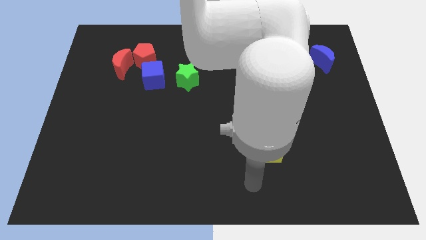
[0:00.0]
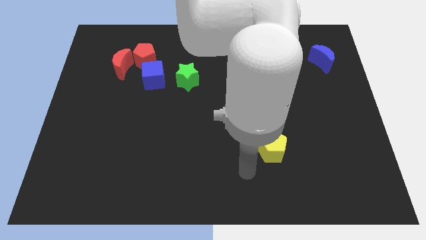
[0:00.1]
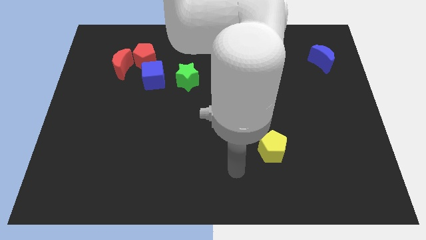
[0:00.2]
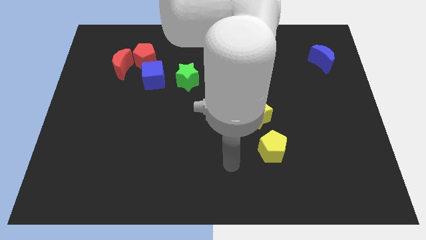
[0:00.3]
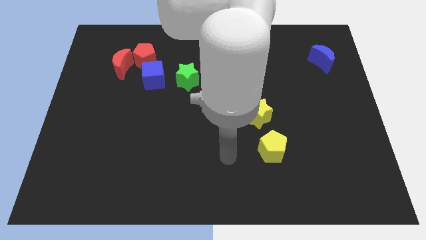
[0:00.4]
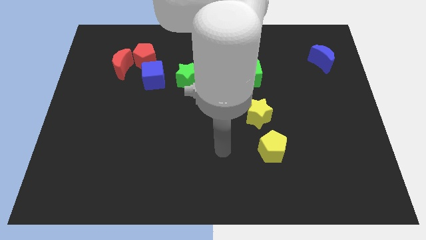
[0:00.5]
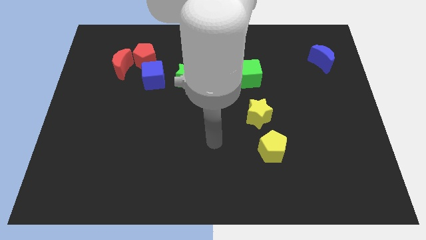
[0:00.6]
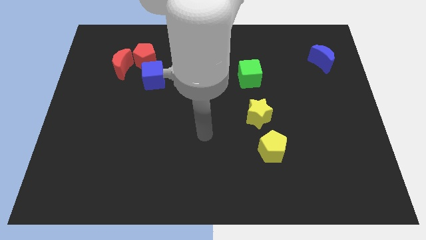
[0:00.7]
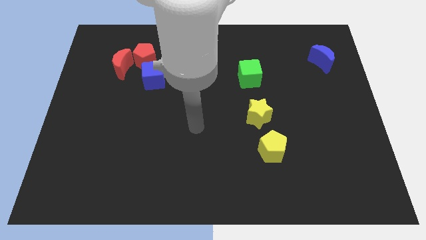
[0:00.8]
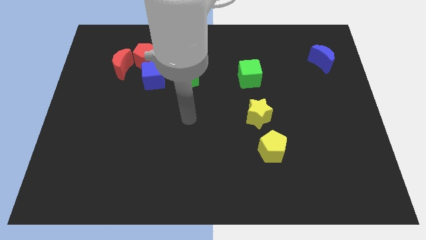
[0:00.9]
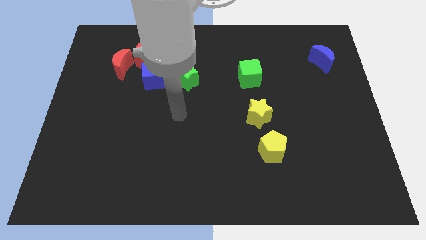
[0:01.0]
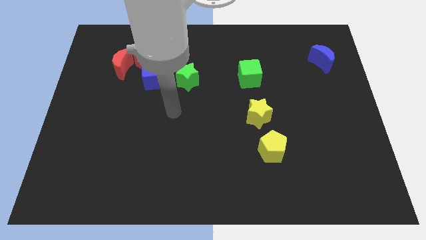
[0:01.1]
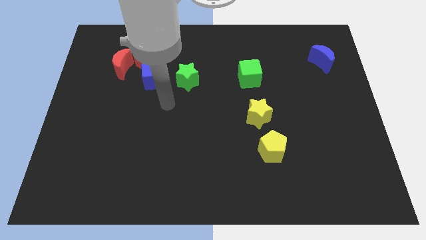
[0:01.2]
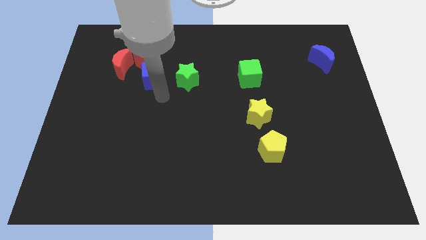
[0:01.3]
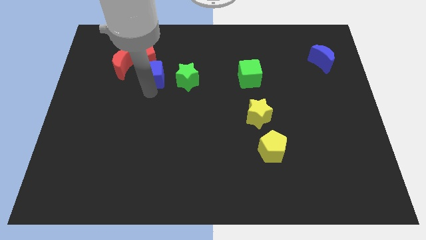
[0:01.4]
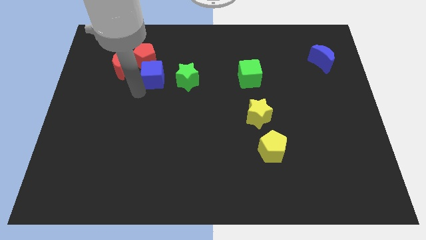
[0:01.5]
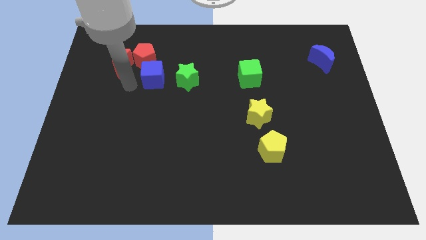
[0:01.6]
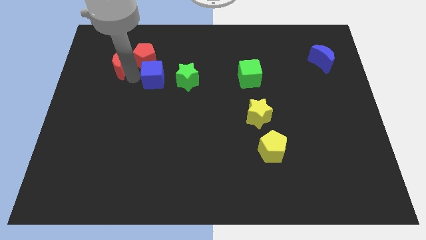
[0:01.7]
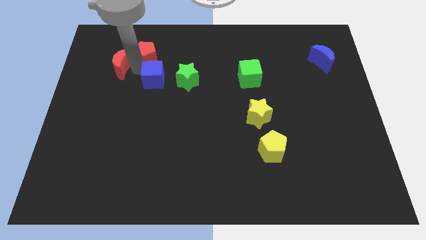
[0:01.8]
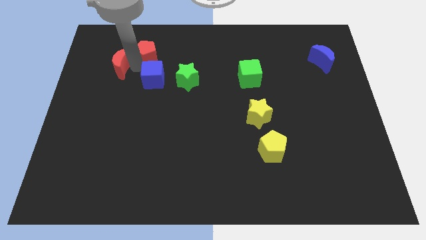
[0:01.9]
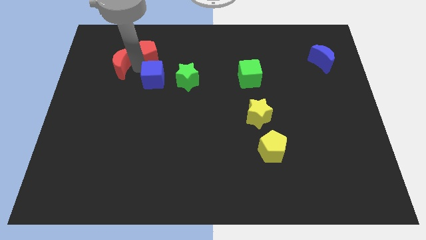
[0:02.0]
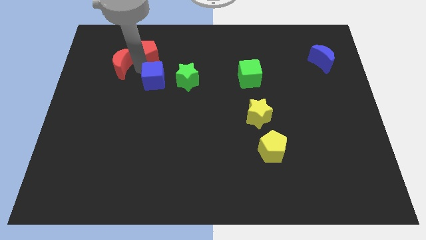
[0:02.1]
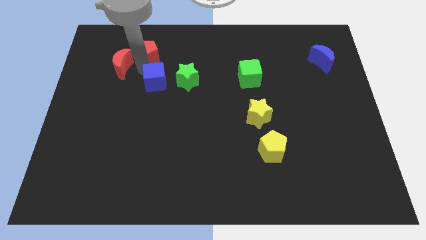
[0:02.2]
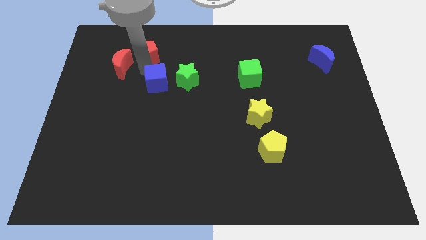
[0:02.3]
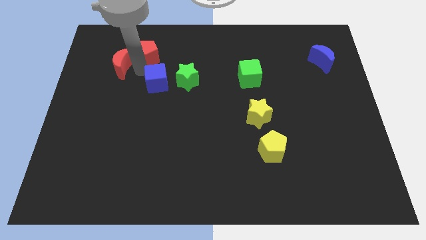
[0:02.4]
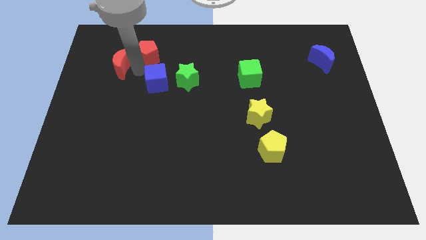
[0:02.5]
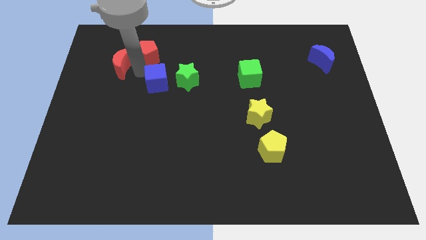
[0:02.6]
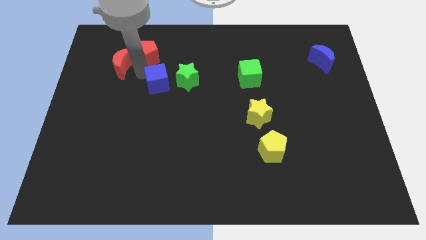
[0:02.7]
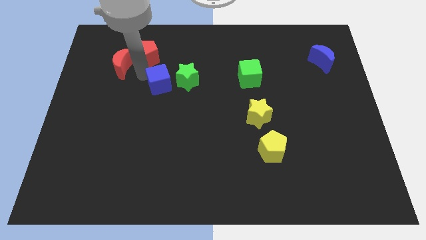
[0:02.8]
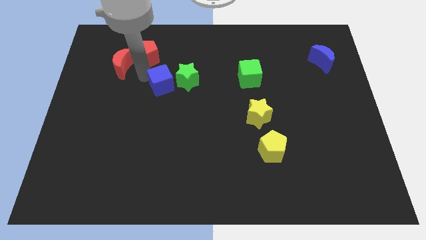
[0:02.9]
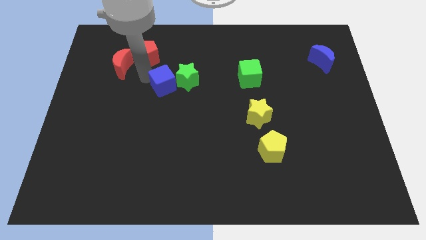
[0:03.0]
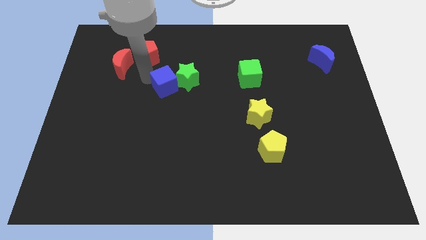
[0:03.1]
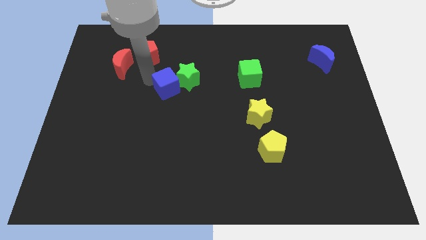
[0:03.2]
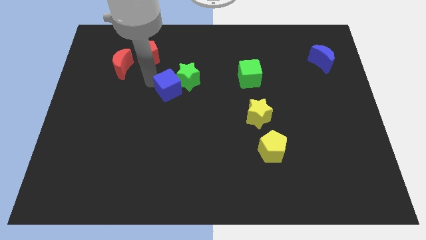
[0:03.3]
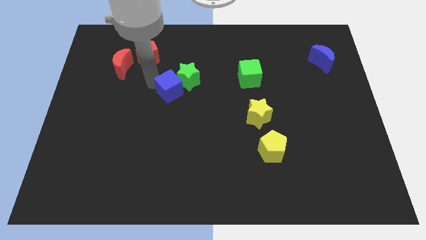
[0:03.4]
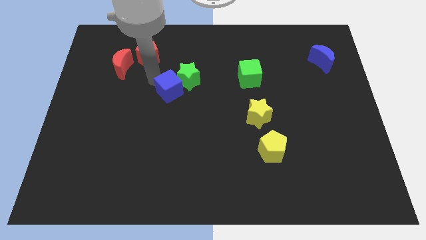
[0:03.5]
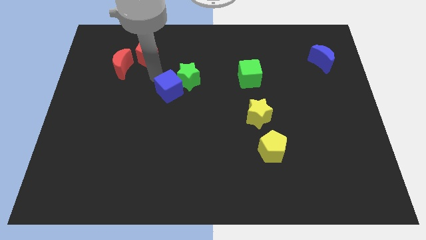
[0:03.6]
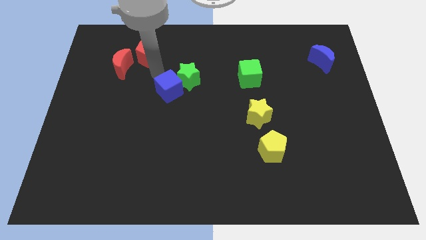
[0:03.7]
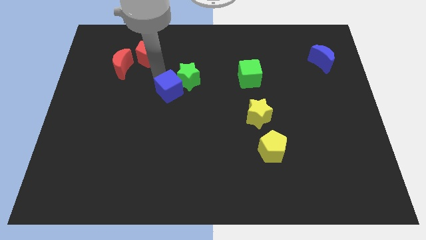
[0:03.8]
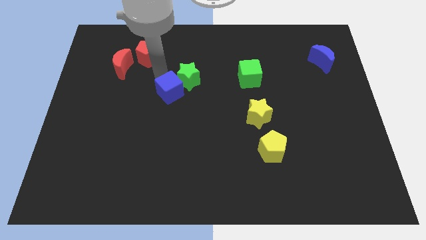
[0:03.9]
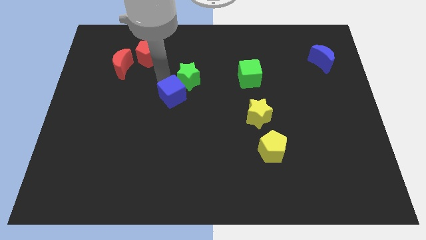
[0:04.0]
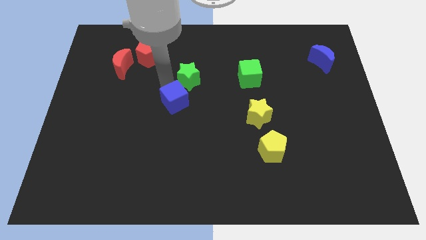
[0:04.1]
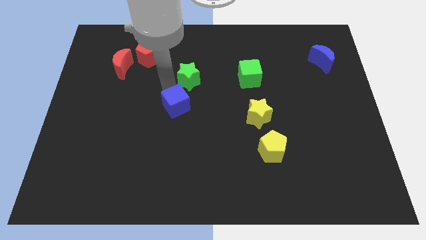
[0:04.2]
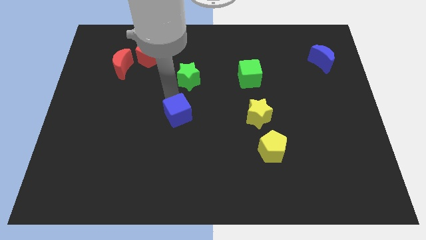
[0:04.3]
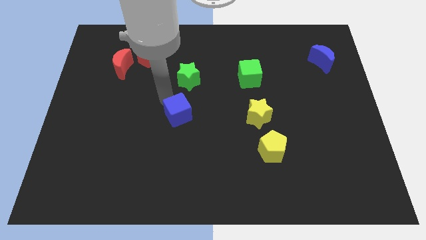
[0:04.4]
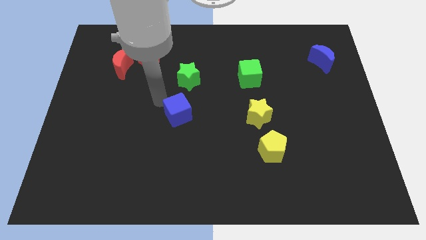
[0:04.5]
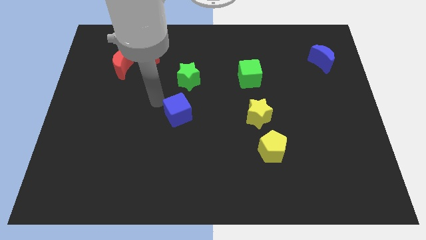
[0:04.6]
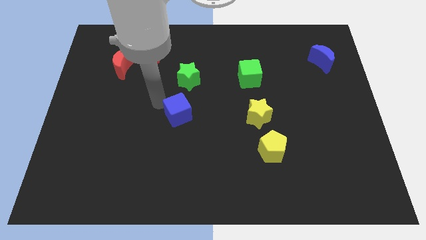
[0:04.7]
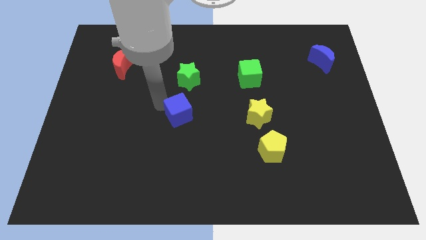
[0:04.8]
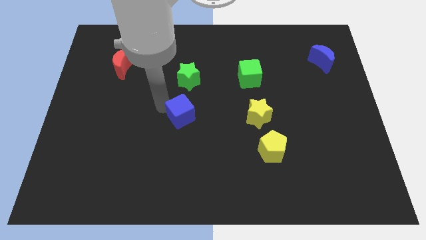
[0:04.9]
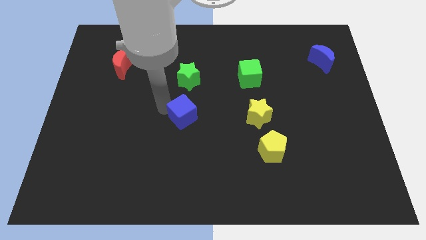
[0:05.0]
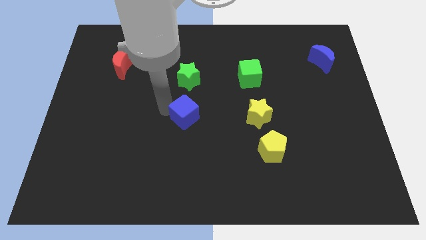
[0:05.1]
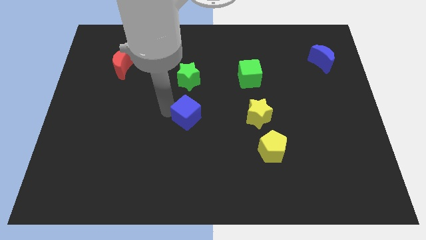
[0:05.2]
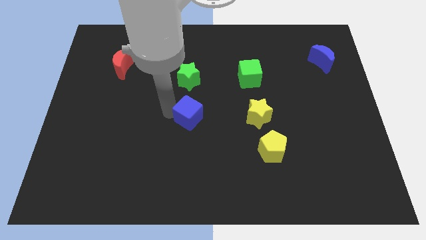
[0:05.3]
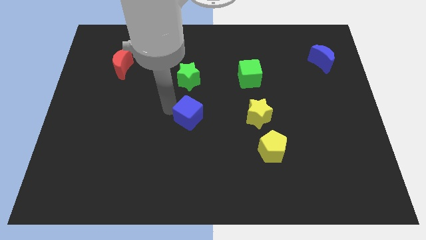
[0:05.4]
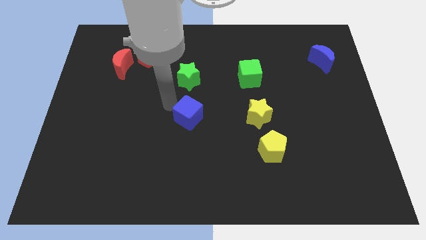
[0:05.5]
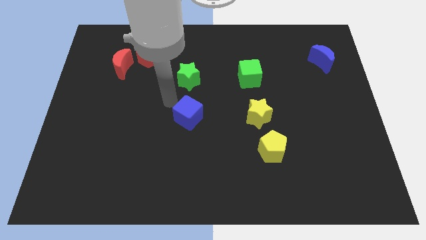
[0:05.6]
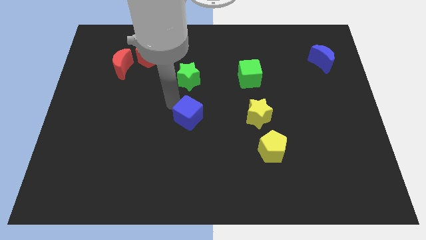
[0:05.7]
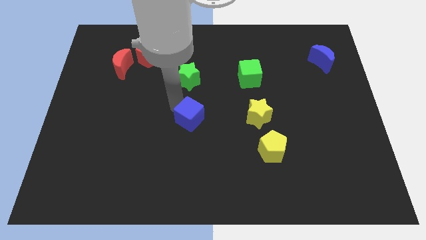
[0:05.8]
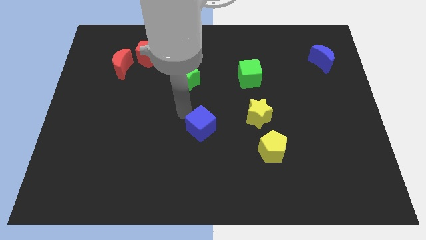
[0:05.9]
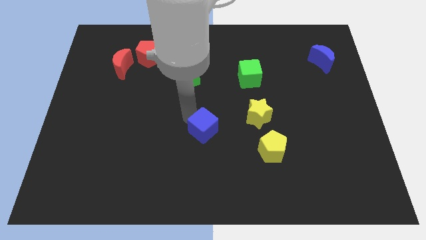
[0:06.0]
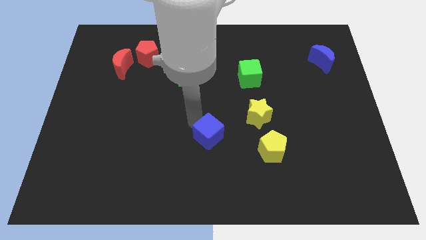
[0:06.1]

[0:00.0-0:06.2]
slide the blue cube downwards and then to the right

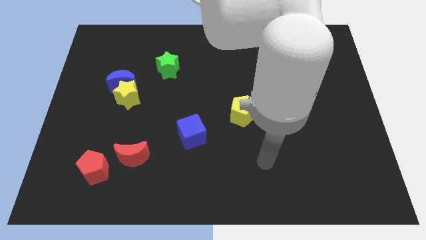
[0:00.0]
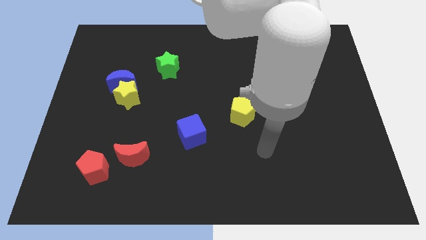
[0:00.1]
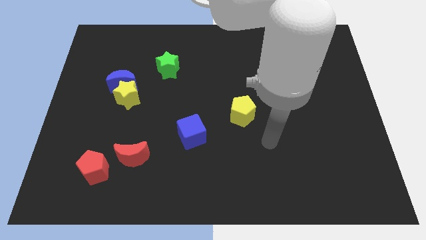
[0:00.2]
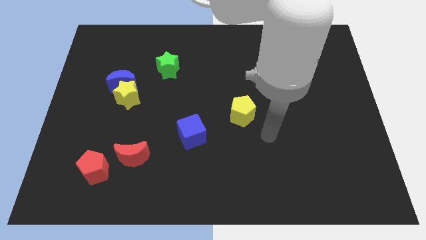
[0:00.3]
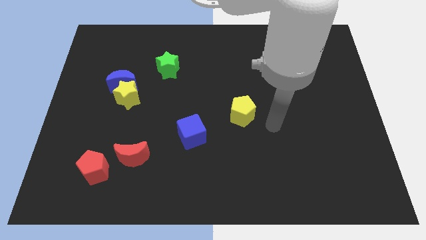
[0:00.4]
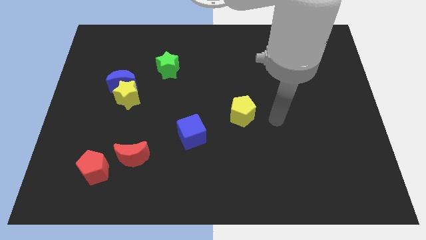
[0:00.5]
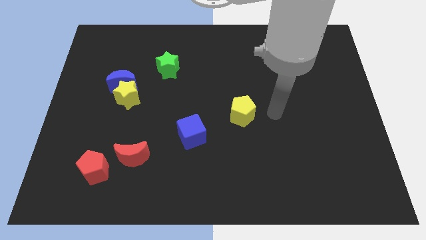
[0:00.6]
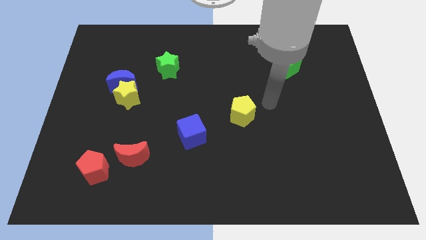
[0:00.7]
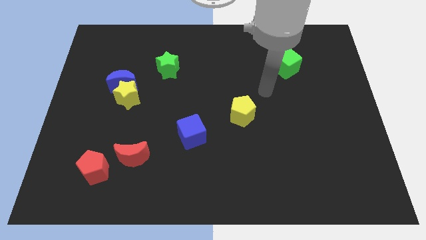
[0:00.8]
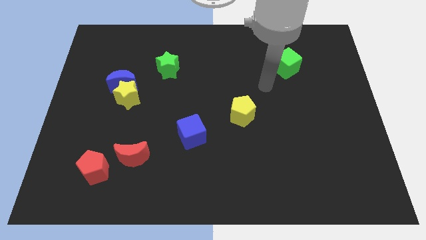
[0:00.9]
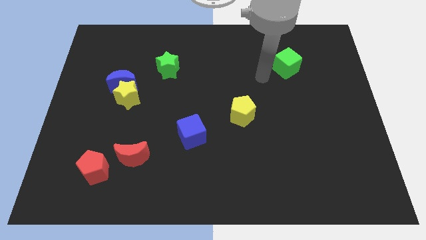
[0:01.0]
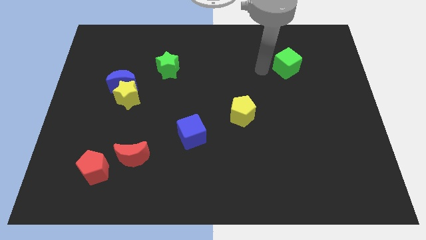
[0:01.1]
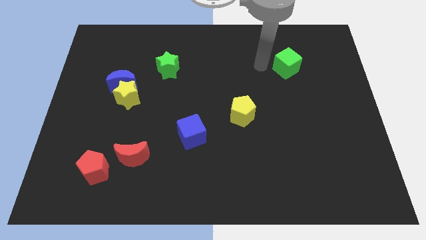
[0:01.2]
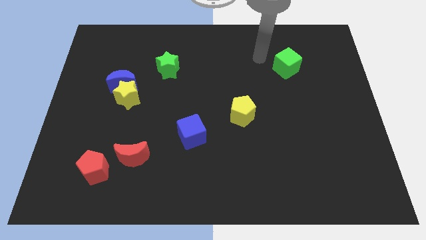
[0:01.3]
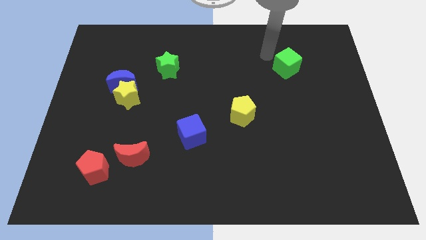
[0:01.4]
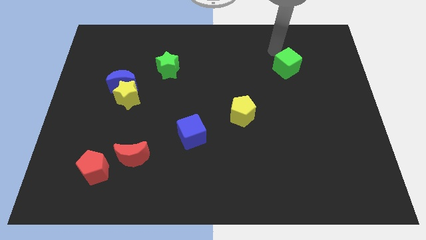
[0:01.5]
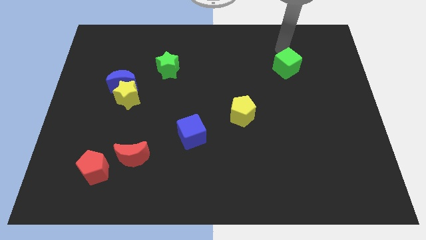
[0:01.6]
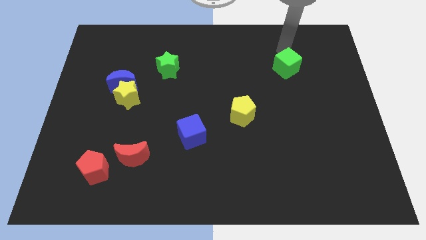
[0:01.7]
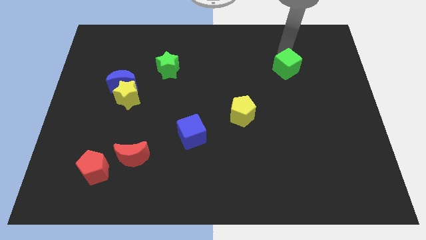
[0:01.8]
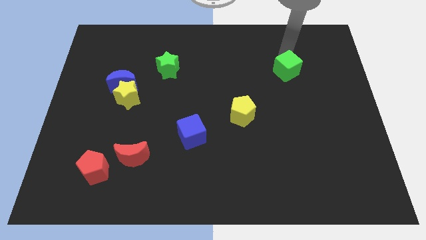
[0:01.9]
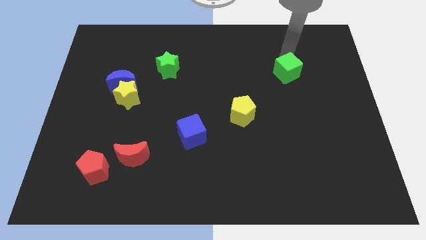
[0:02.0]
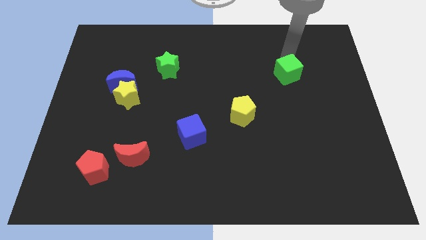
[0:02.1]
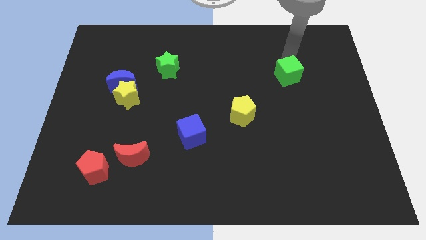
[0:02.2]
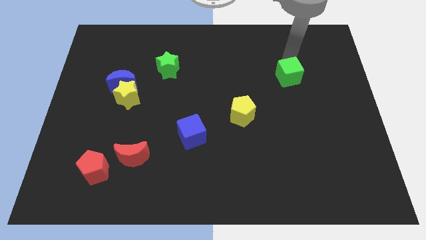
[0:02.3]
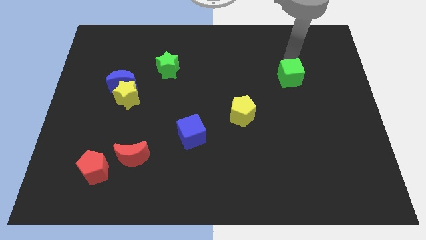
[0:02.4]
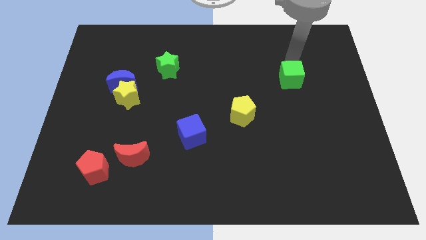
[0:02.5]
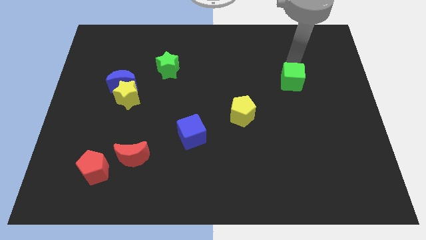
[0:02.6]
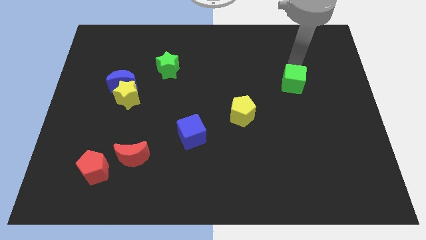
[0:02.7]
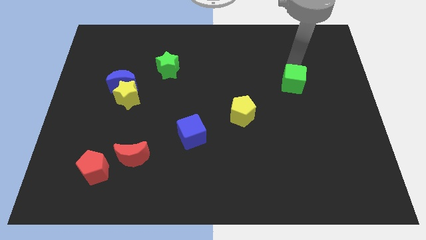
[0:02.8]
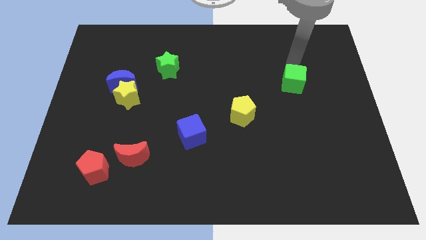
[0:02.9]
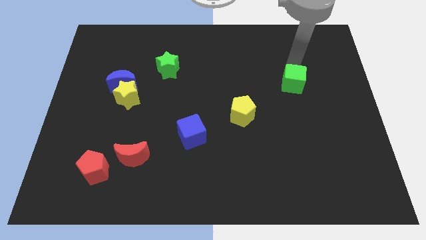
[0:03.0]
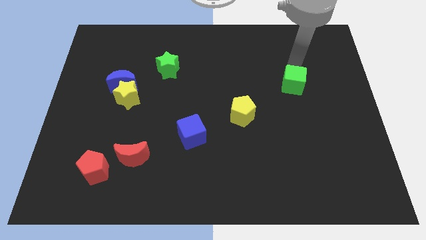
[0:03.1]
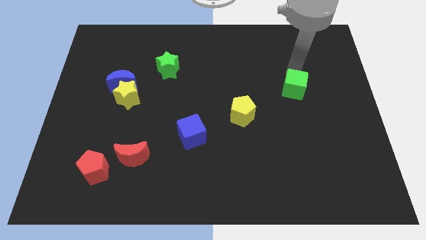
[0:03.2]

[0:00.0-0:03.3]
push the green cube a bit down
